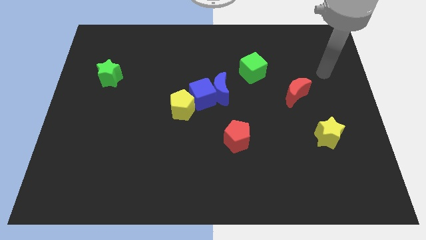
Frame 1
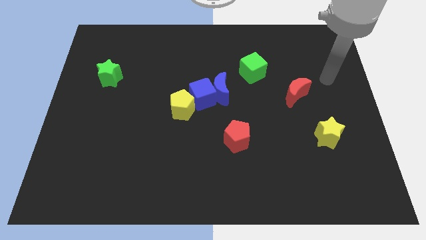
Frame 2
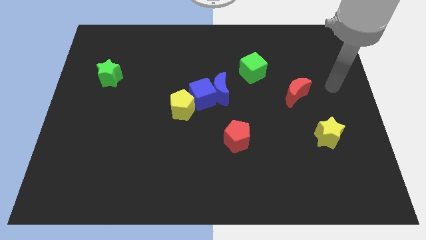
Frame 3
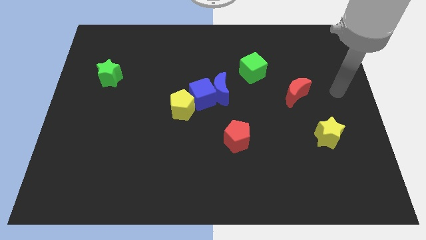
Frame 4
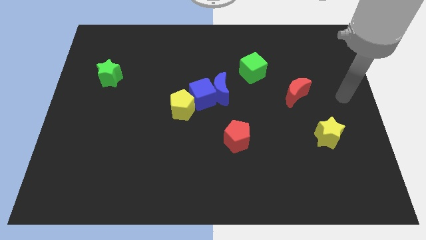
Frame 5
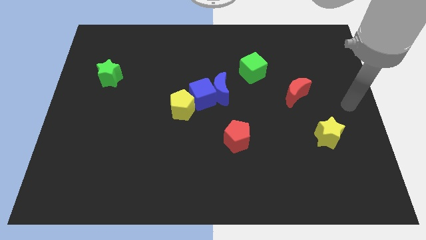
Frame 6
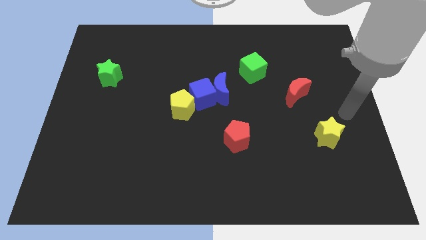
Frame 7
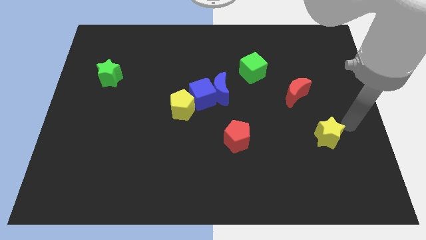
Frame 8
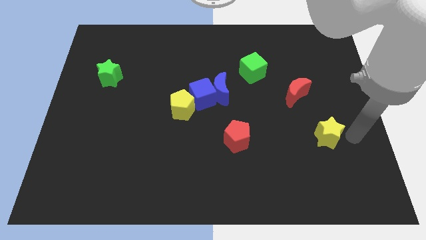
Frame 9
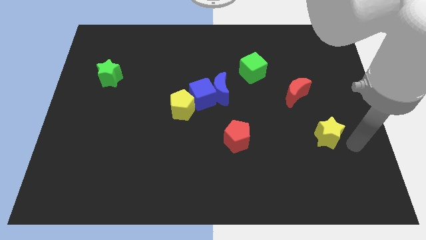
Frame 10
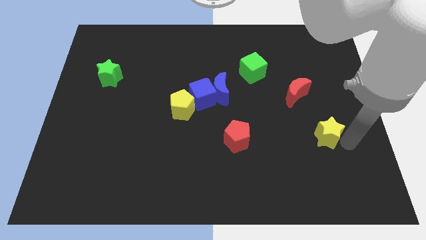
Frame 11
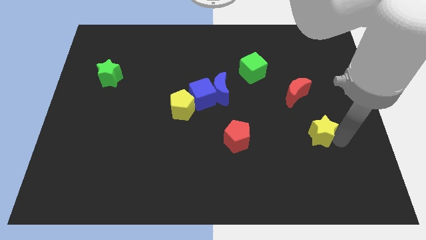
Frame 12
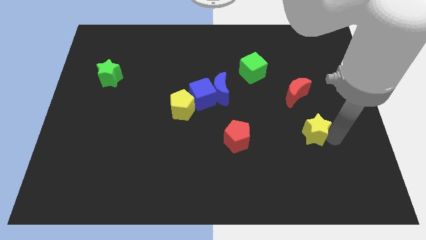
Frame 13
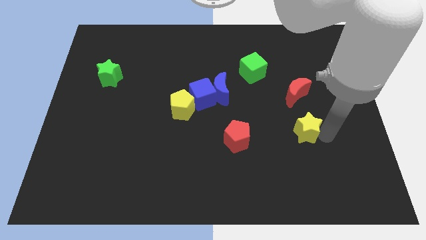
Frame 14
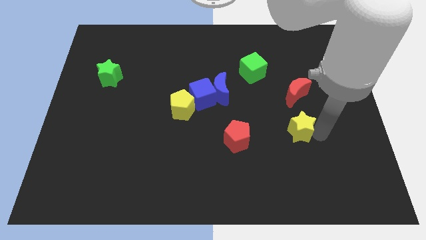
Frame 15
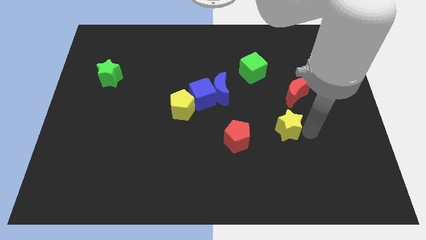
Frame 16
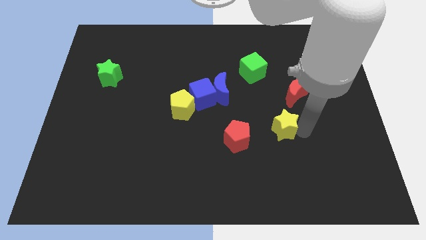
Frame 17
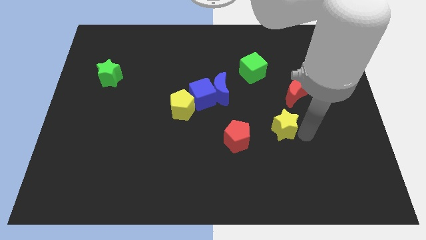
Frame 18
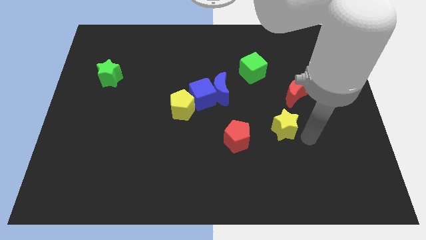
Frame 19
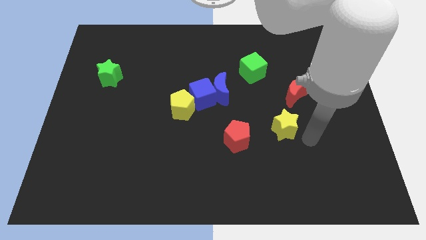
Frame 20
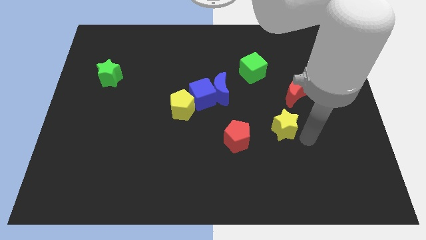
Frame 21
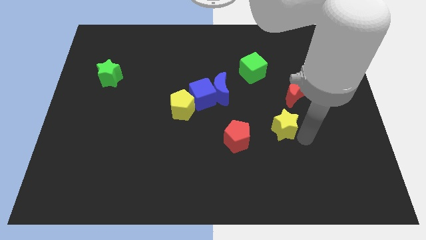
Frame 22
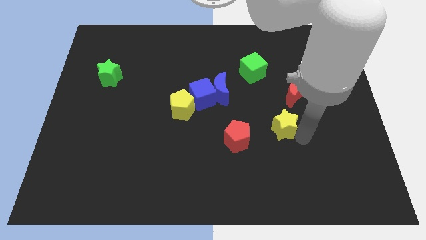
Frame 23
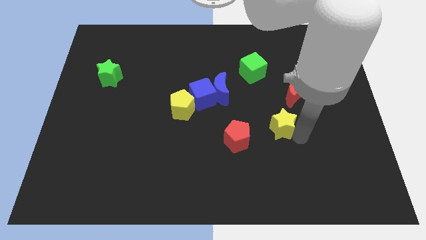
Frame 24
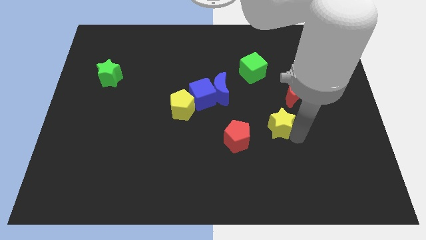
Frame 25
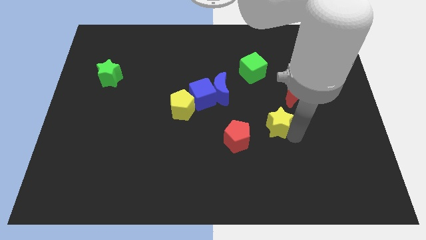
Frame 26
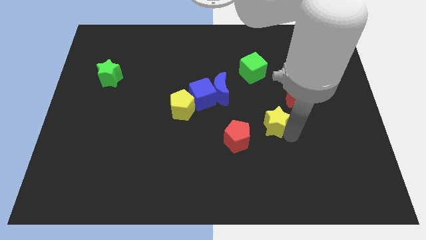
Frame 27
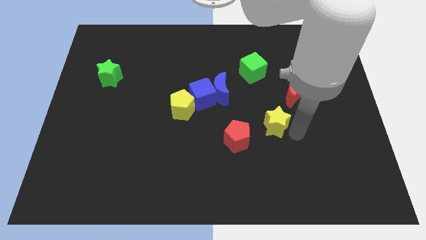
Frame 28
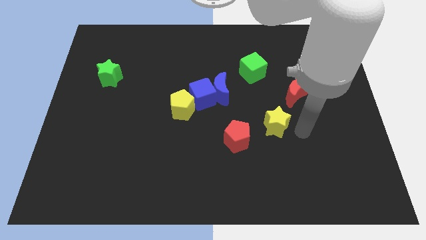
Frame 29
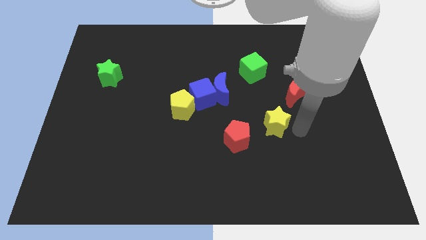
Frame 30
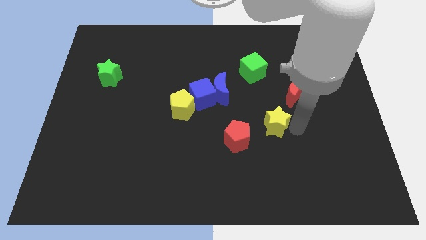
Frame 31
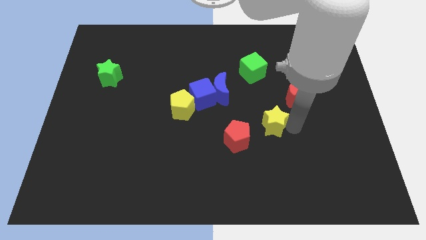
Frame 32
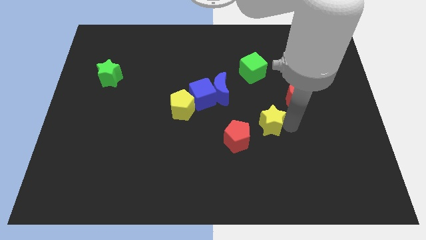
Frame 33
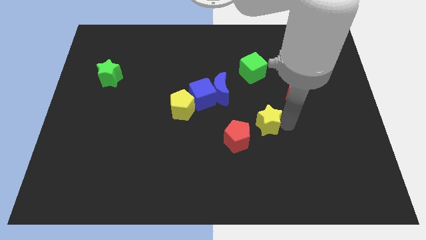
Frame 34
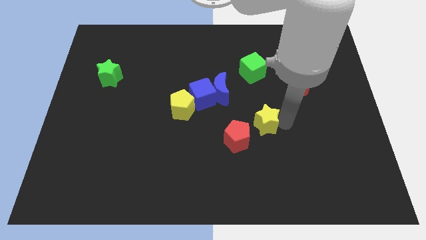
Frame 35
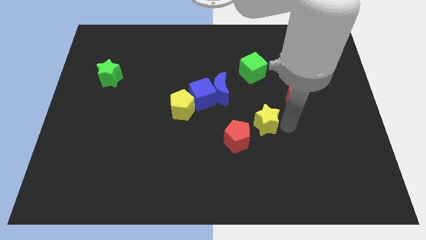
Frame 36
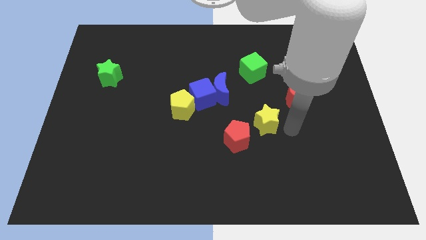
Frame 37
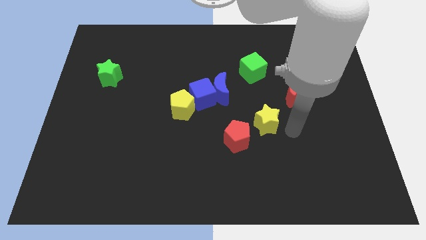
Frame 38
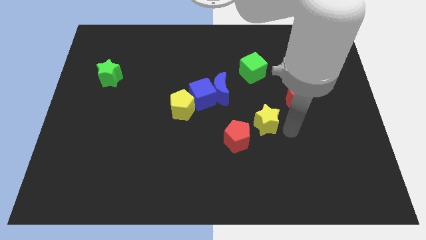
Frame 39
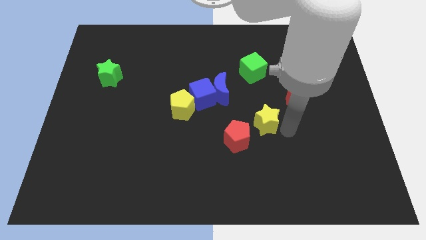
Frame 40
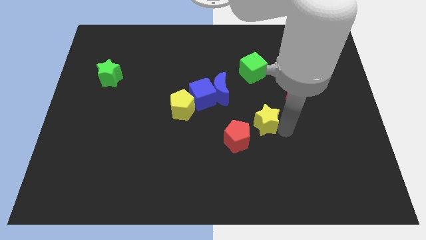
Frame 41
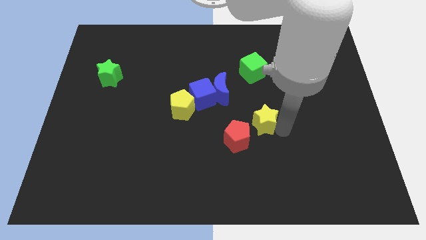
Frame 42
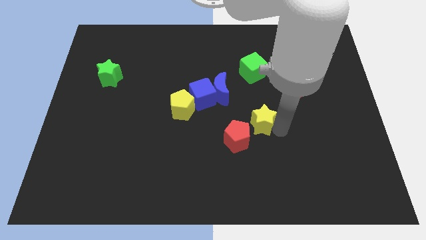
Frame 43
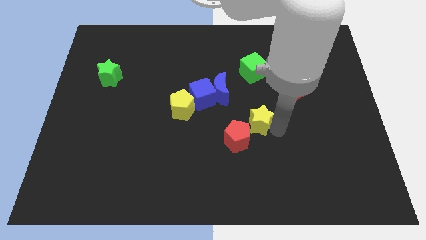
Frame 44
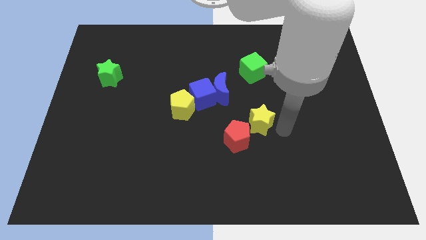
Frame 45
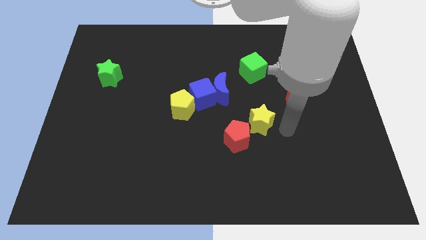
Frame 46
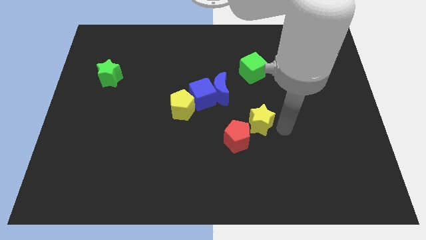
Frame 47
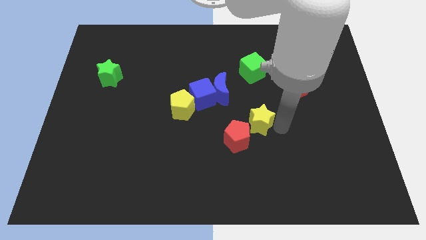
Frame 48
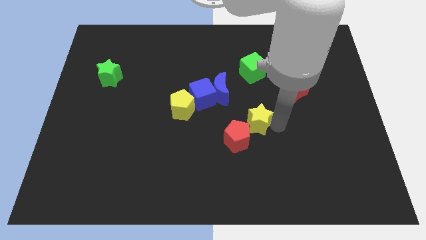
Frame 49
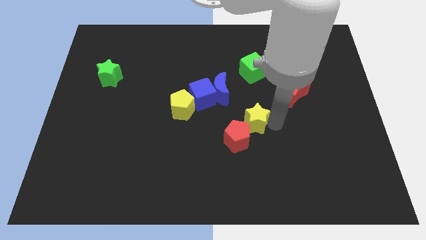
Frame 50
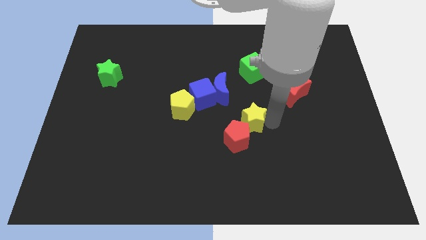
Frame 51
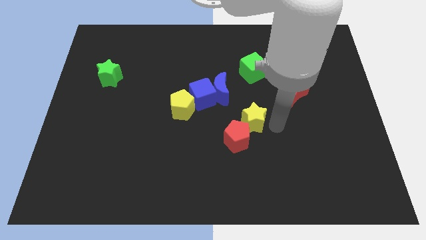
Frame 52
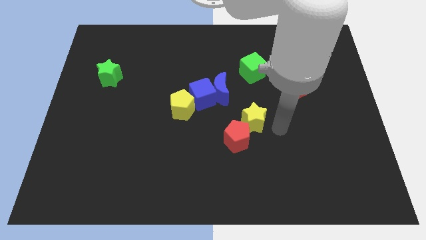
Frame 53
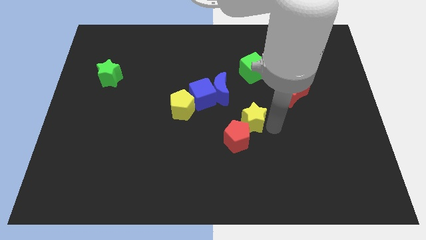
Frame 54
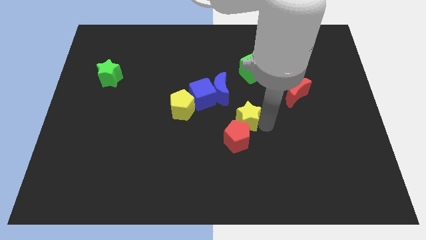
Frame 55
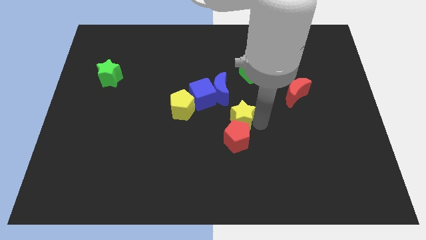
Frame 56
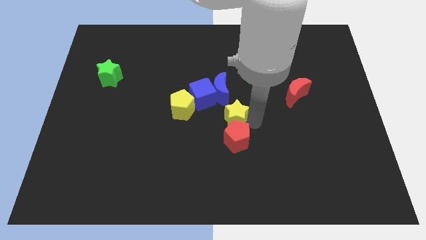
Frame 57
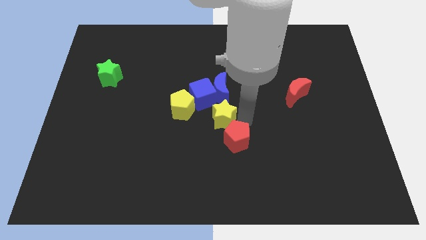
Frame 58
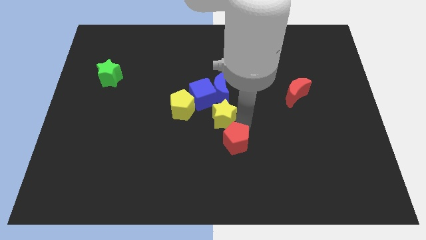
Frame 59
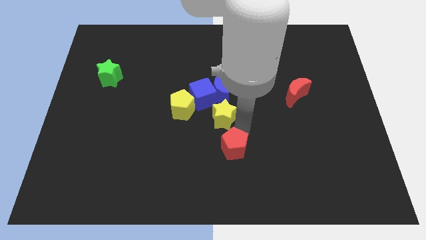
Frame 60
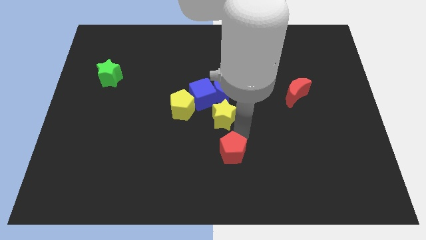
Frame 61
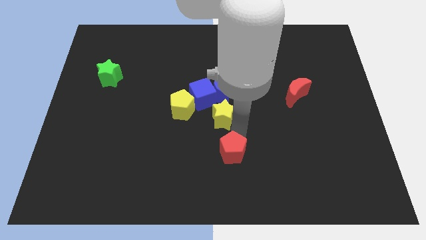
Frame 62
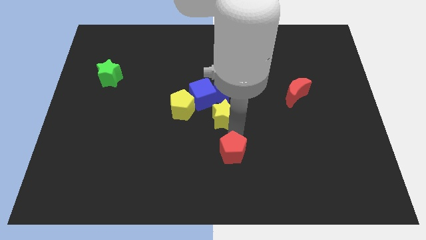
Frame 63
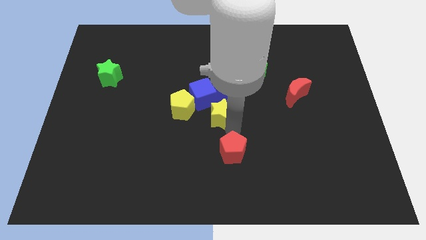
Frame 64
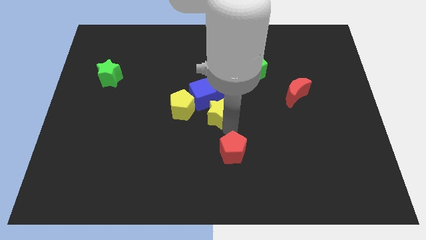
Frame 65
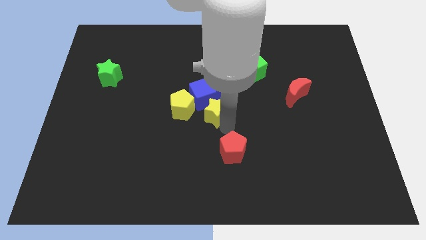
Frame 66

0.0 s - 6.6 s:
put the yellow star towards the blue cube

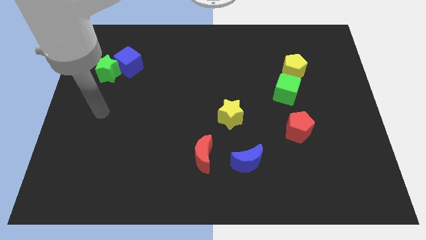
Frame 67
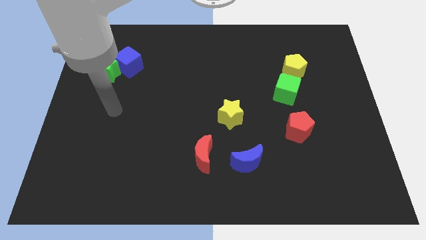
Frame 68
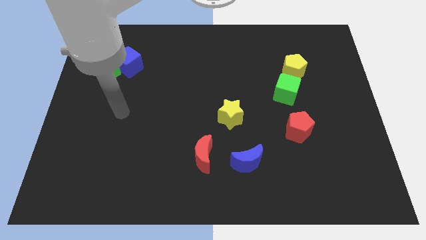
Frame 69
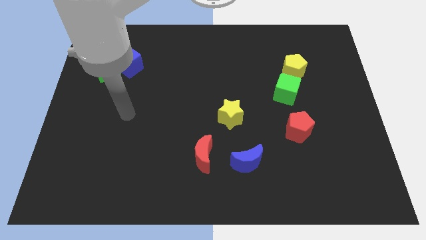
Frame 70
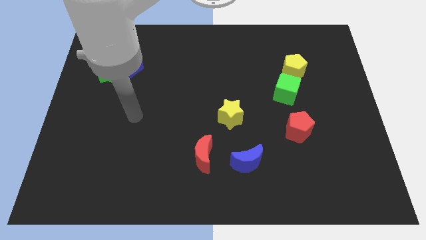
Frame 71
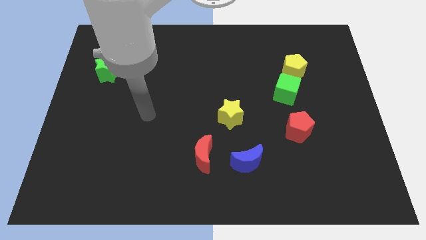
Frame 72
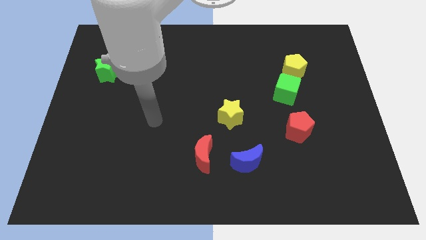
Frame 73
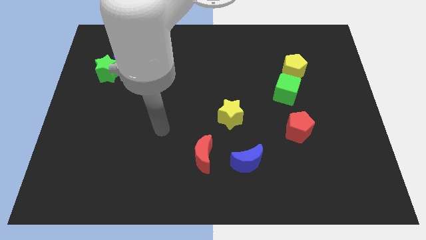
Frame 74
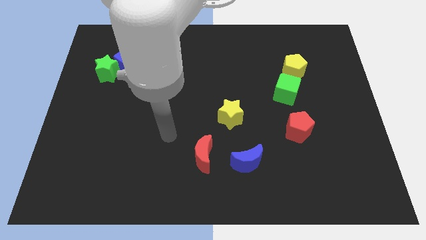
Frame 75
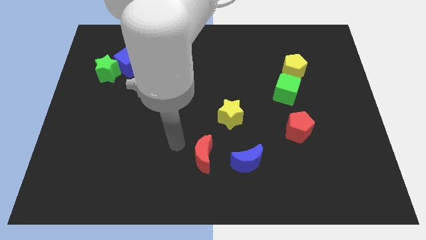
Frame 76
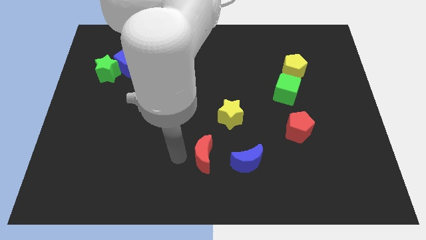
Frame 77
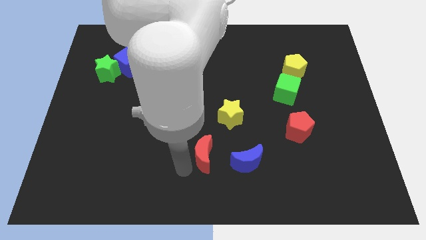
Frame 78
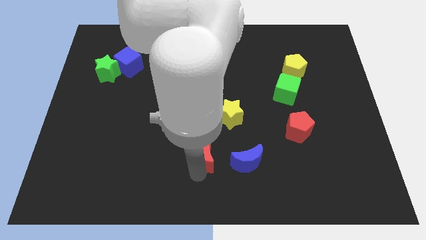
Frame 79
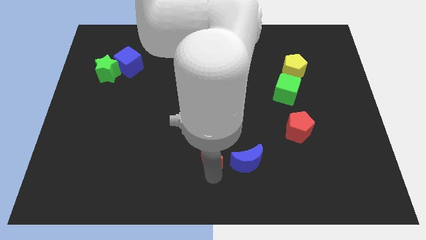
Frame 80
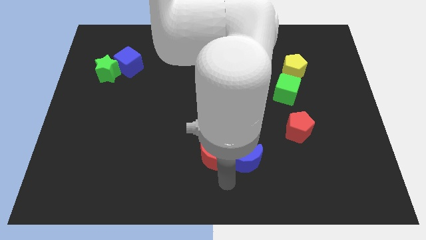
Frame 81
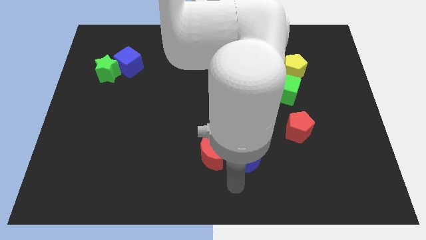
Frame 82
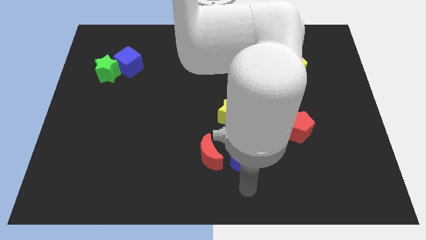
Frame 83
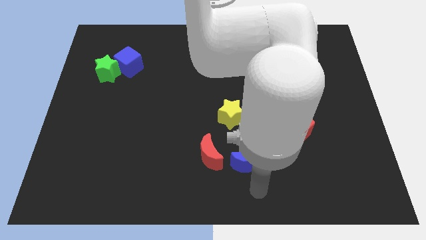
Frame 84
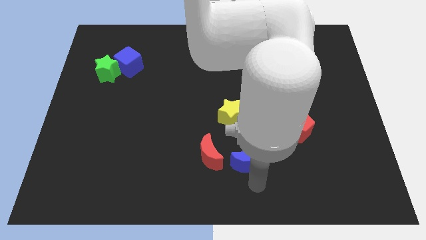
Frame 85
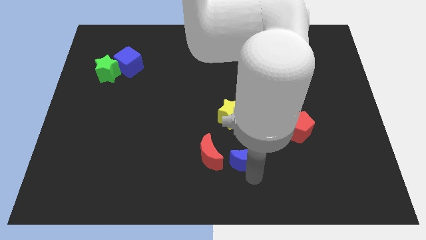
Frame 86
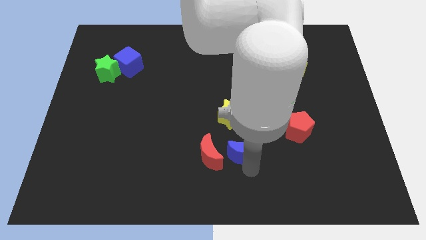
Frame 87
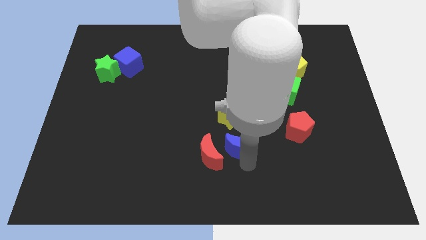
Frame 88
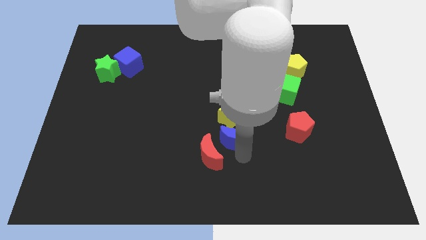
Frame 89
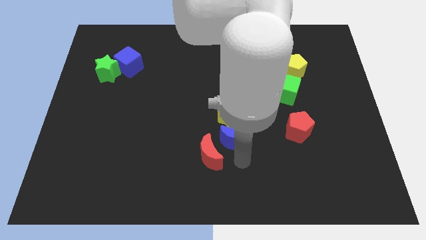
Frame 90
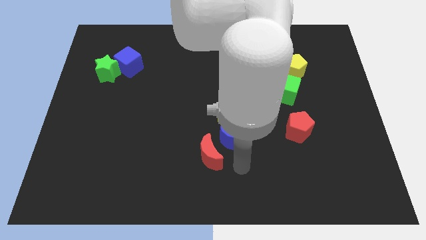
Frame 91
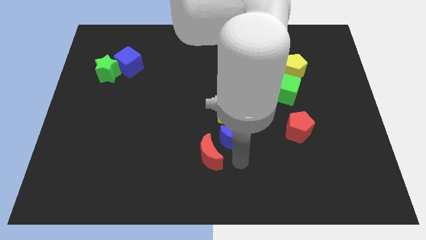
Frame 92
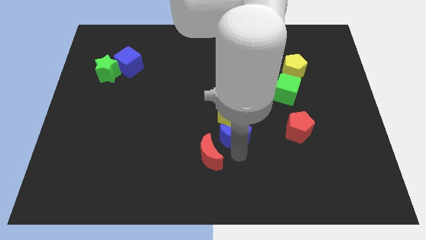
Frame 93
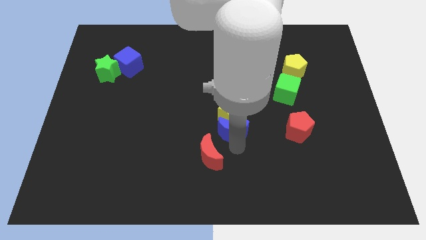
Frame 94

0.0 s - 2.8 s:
move the blue moon close to the yellow star
